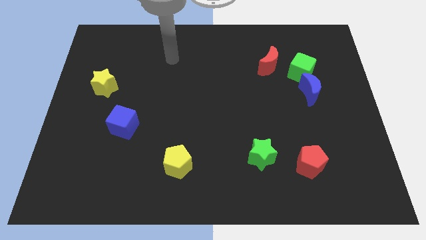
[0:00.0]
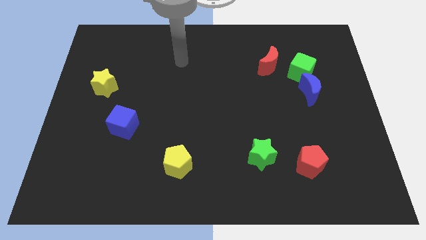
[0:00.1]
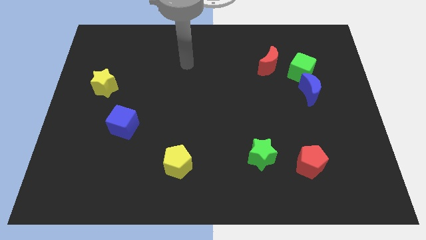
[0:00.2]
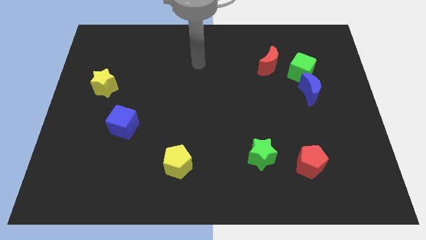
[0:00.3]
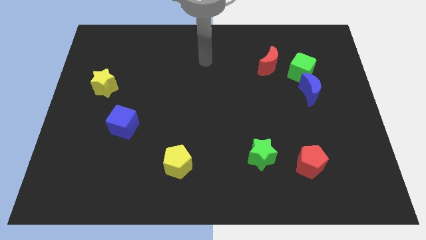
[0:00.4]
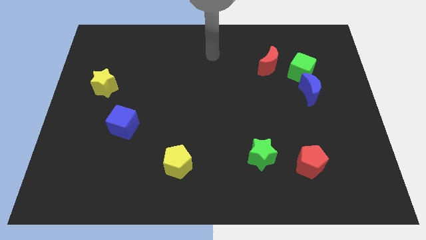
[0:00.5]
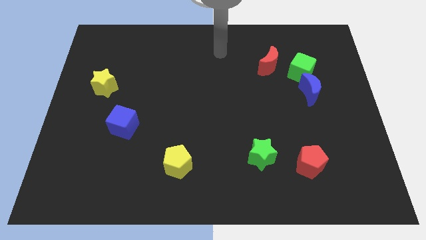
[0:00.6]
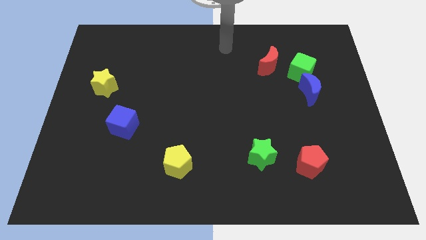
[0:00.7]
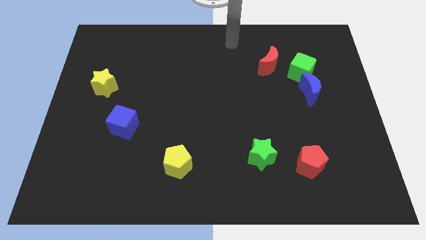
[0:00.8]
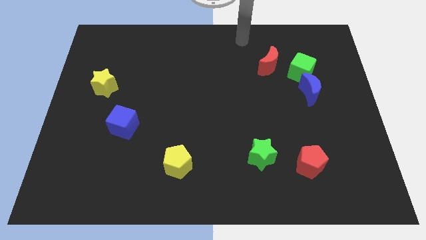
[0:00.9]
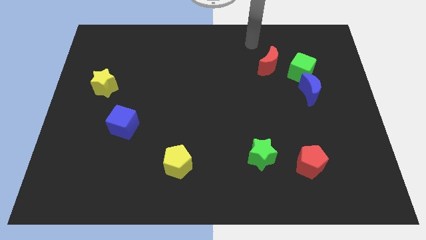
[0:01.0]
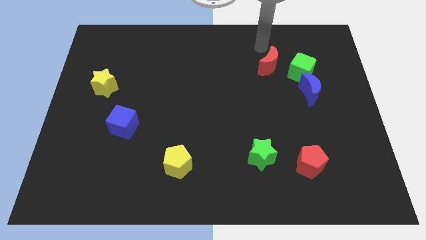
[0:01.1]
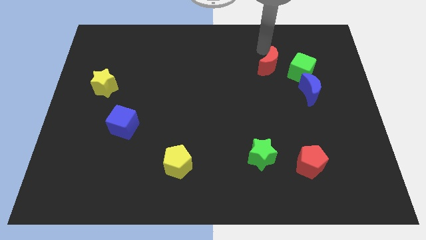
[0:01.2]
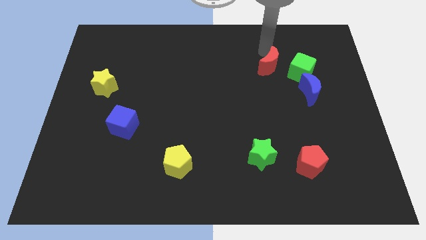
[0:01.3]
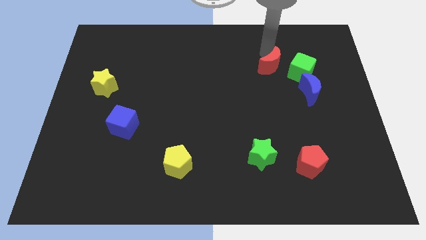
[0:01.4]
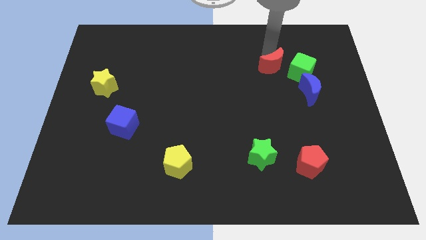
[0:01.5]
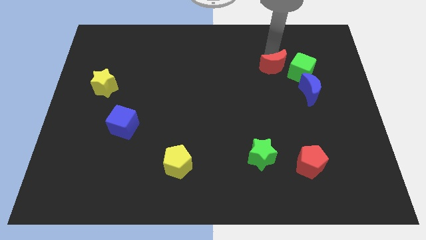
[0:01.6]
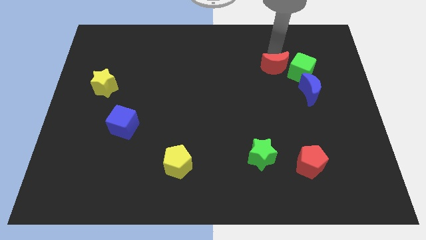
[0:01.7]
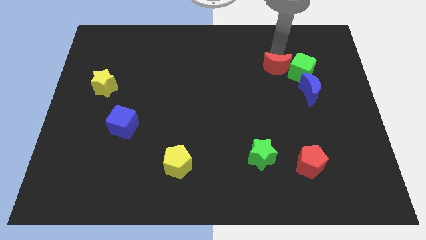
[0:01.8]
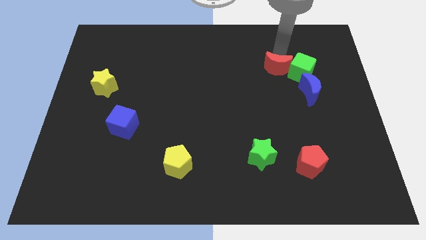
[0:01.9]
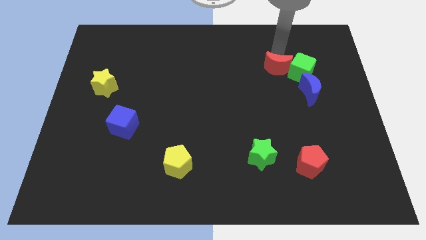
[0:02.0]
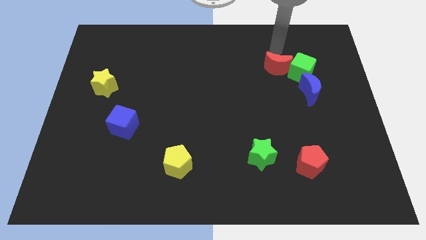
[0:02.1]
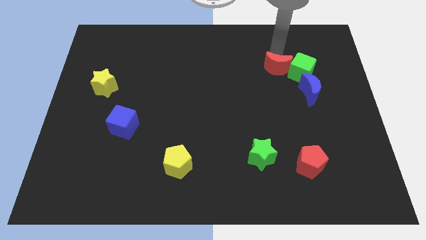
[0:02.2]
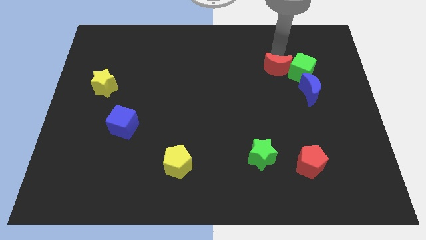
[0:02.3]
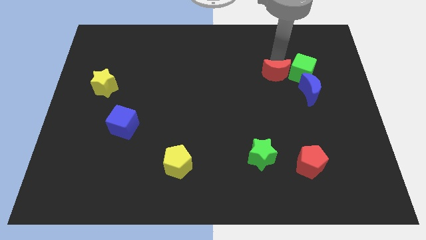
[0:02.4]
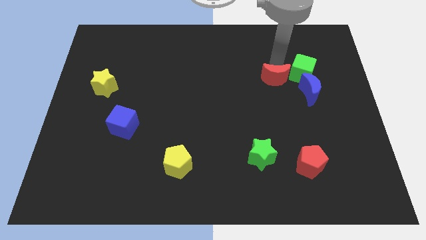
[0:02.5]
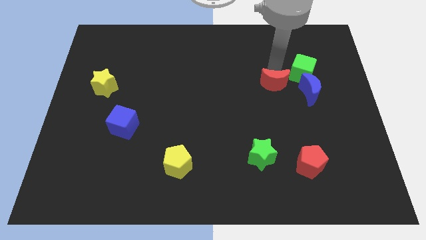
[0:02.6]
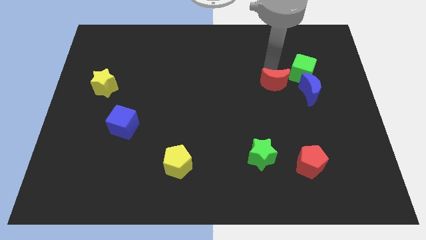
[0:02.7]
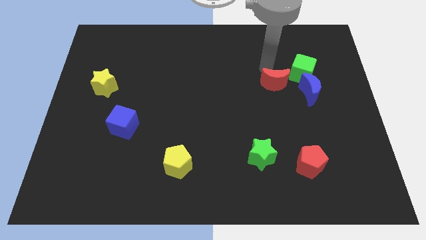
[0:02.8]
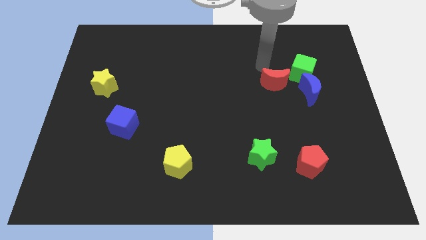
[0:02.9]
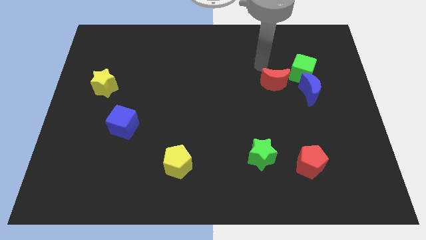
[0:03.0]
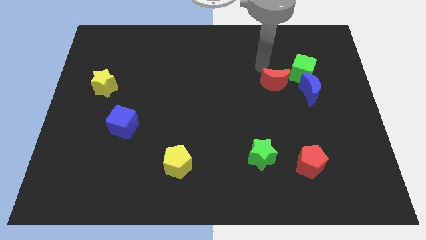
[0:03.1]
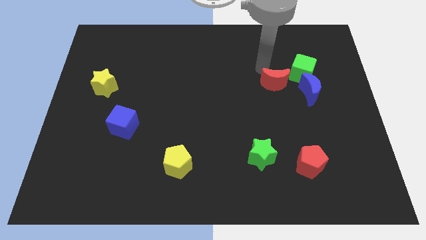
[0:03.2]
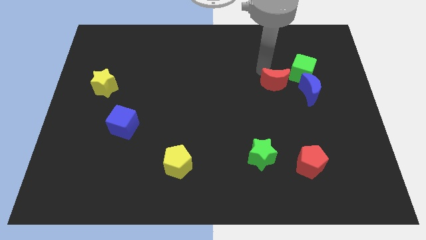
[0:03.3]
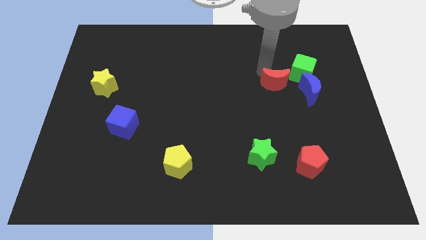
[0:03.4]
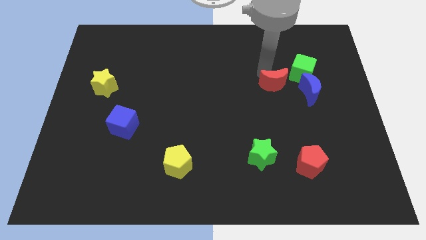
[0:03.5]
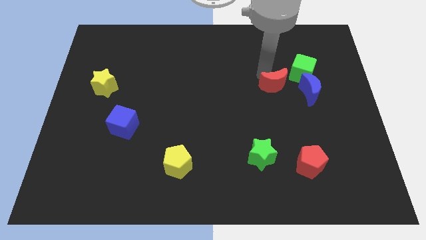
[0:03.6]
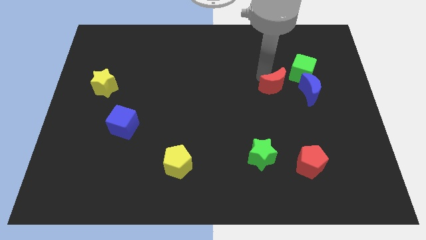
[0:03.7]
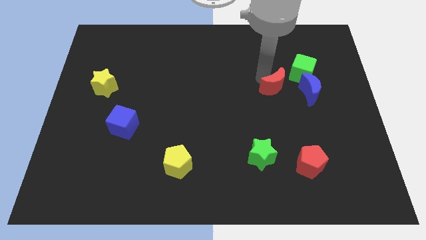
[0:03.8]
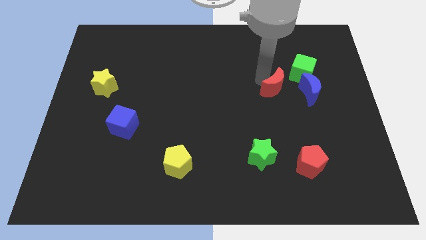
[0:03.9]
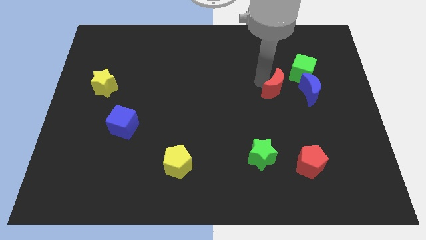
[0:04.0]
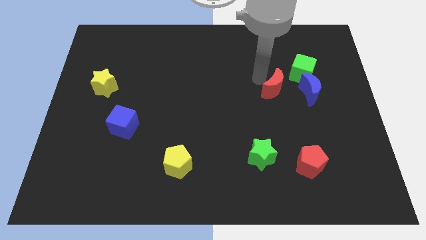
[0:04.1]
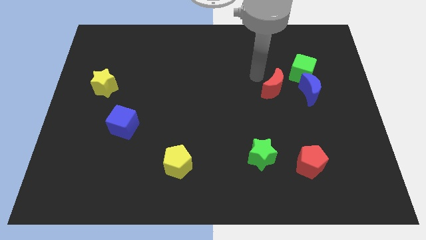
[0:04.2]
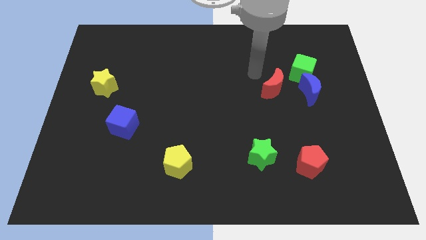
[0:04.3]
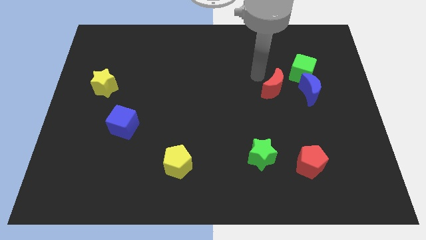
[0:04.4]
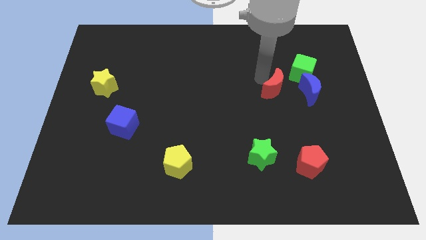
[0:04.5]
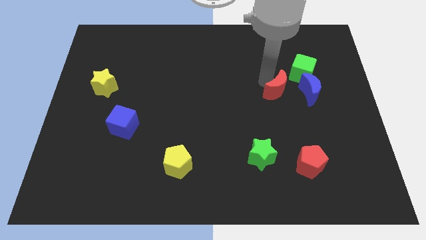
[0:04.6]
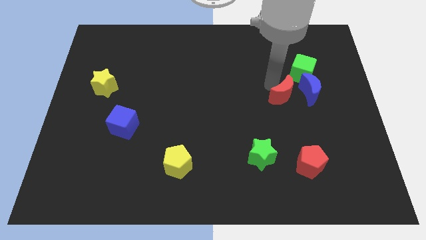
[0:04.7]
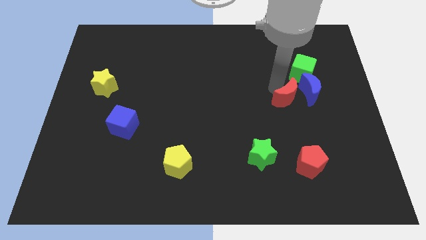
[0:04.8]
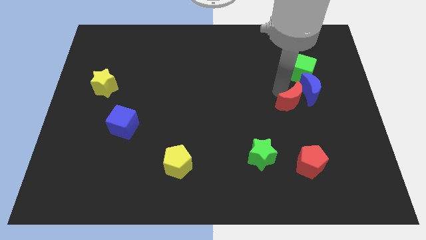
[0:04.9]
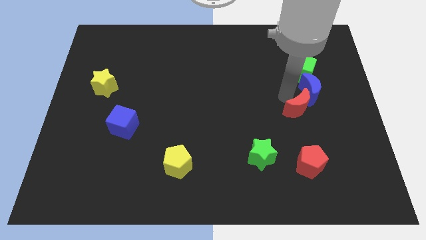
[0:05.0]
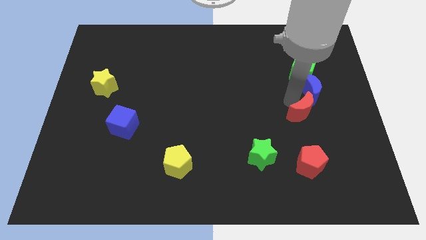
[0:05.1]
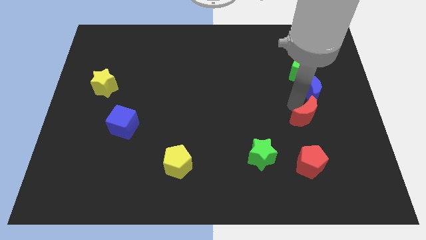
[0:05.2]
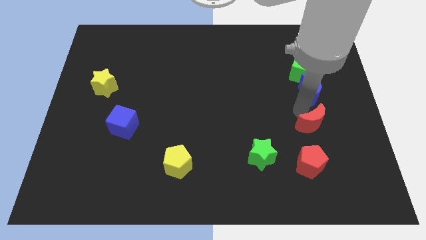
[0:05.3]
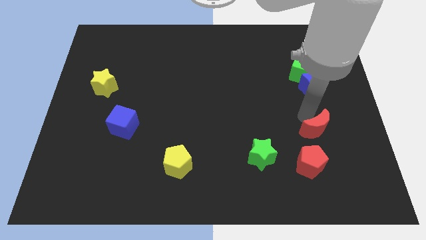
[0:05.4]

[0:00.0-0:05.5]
move the red moon diagonally up and to the right of the red pentagon

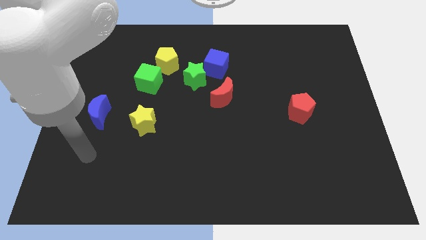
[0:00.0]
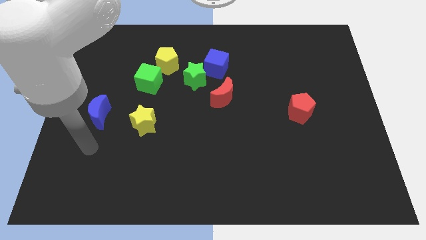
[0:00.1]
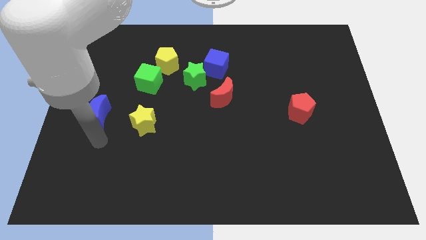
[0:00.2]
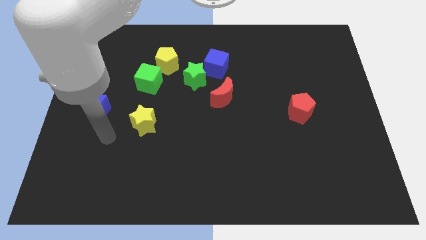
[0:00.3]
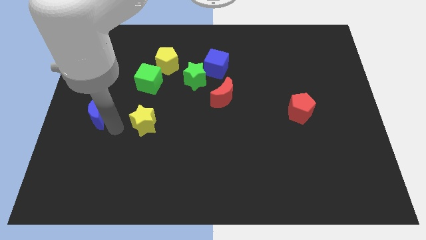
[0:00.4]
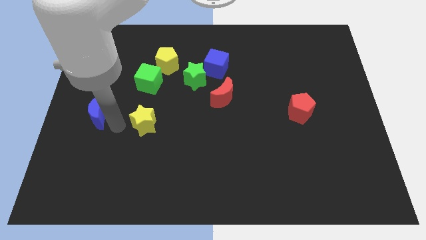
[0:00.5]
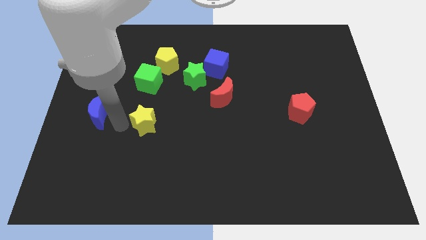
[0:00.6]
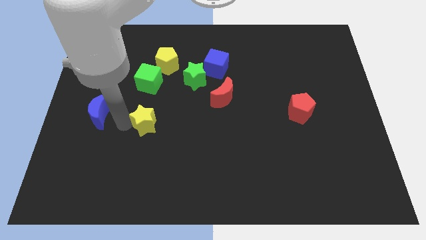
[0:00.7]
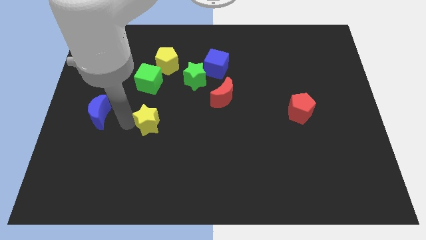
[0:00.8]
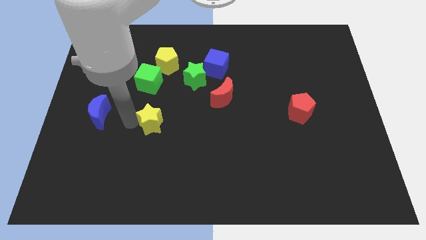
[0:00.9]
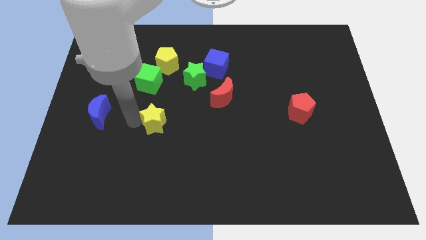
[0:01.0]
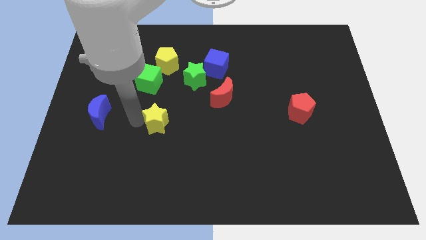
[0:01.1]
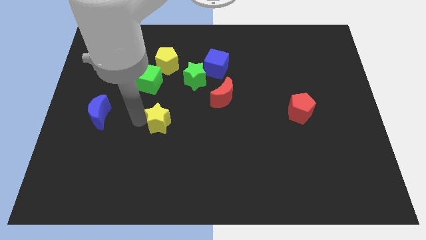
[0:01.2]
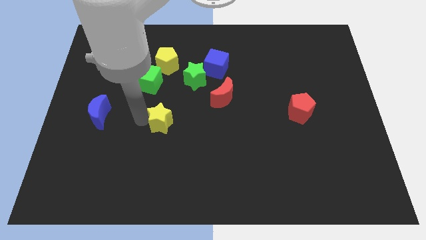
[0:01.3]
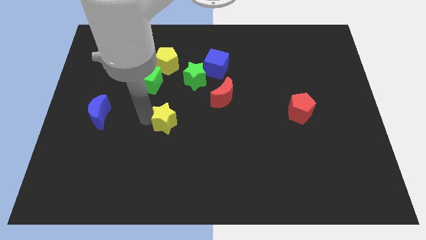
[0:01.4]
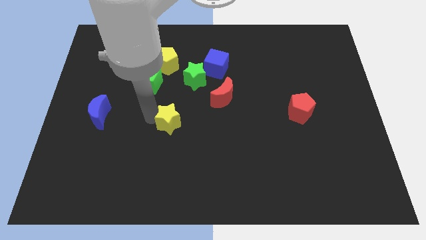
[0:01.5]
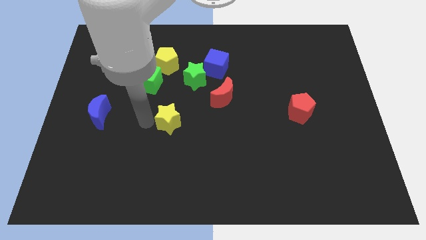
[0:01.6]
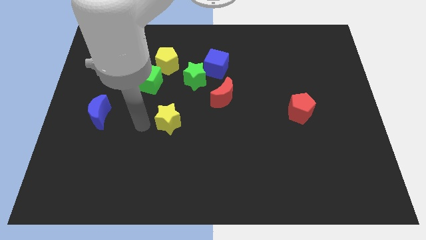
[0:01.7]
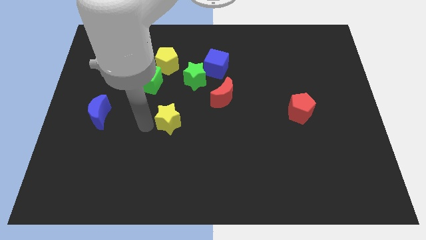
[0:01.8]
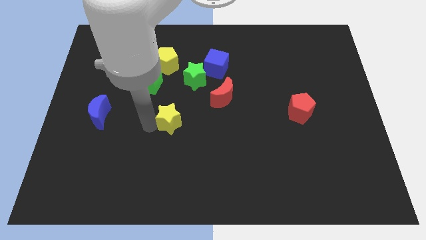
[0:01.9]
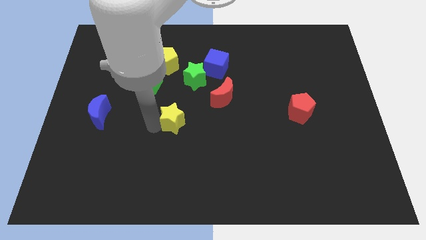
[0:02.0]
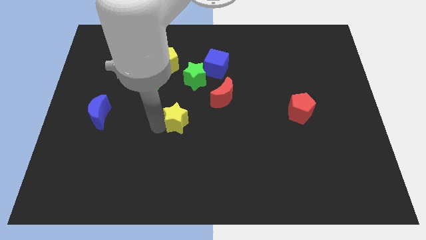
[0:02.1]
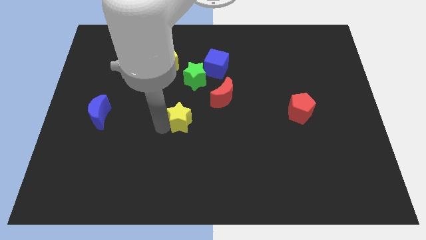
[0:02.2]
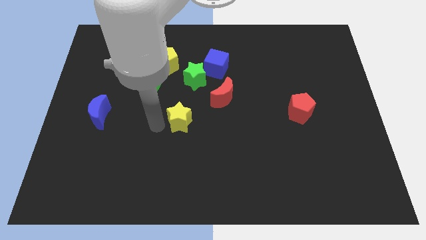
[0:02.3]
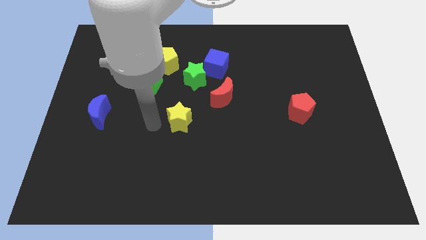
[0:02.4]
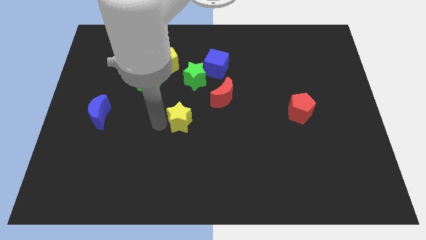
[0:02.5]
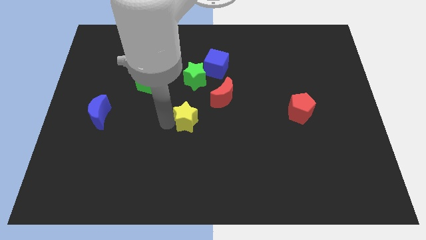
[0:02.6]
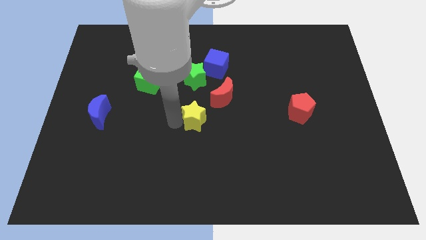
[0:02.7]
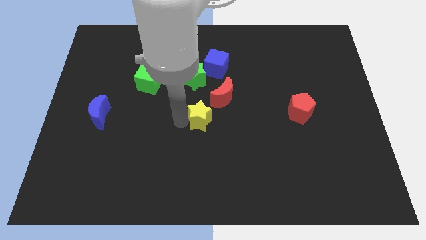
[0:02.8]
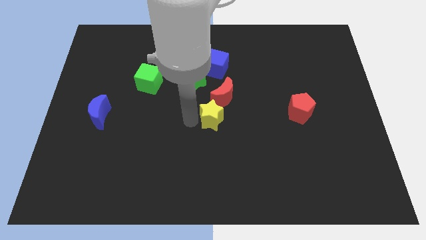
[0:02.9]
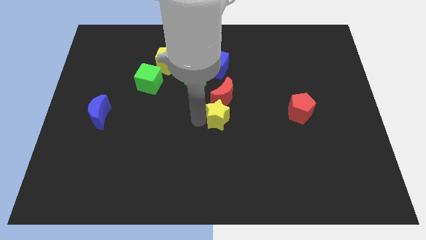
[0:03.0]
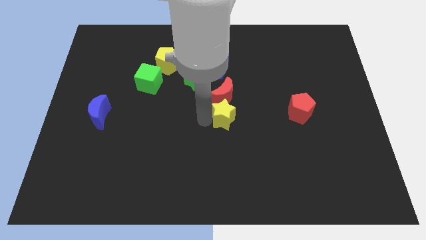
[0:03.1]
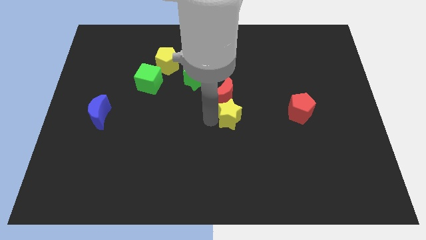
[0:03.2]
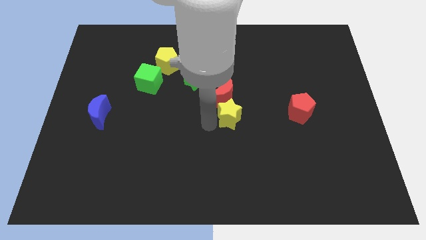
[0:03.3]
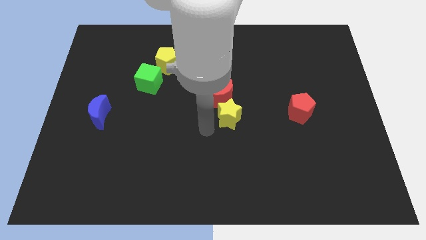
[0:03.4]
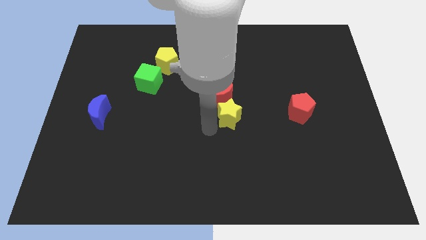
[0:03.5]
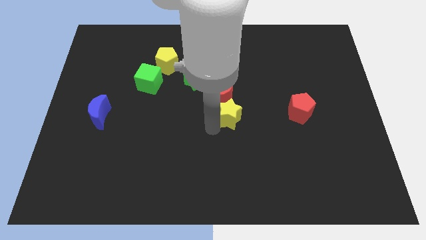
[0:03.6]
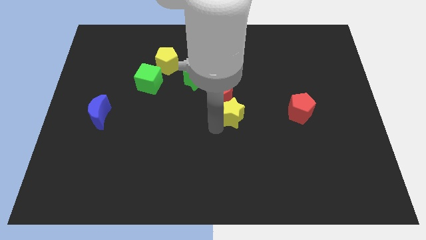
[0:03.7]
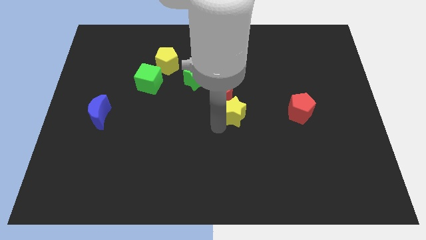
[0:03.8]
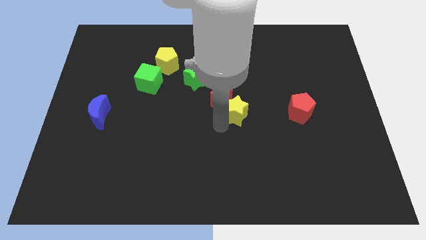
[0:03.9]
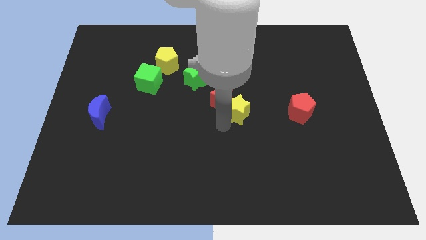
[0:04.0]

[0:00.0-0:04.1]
move the yellow star to the right side of the red moon
